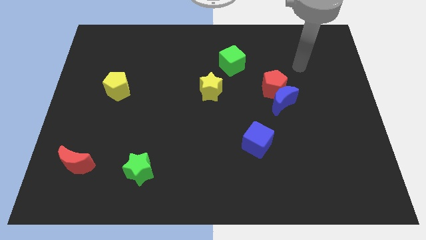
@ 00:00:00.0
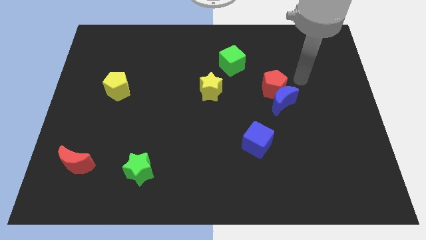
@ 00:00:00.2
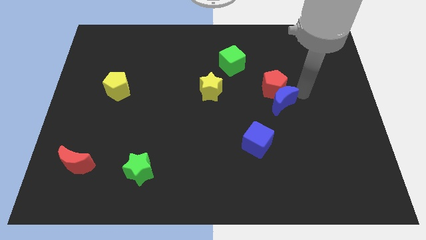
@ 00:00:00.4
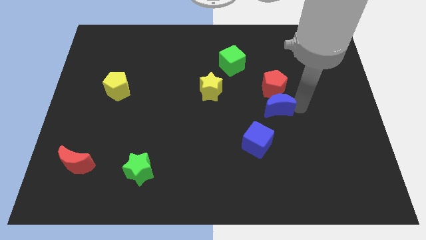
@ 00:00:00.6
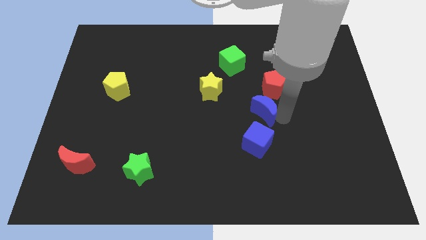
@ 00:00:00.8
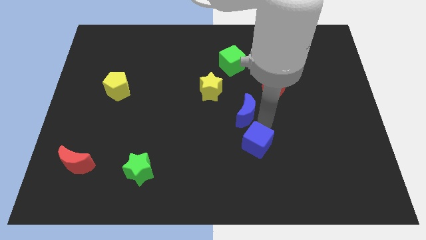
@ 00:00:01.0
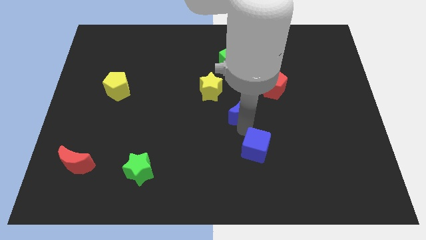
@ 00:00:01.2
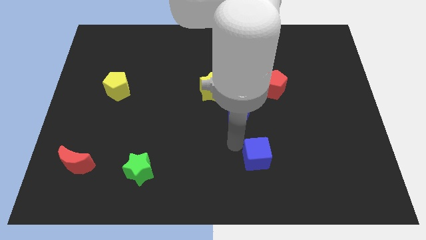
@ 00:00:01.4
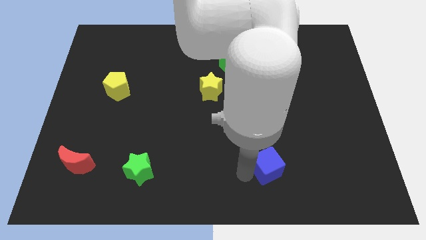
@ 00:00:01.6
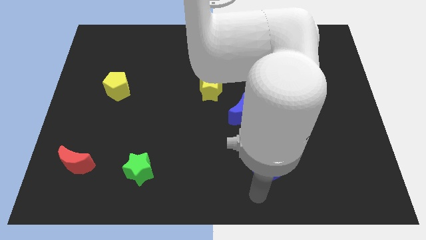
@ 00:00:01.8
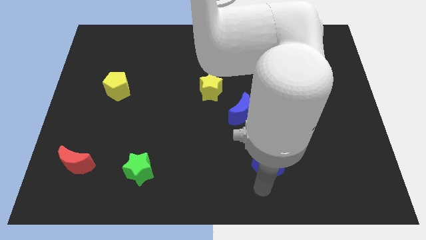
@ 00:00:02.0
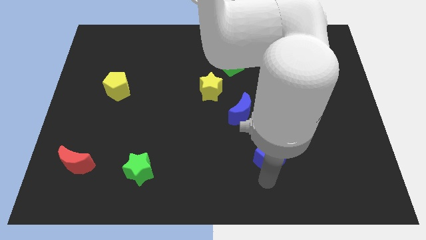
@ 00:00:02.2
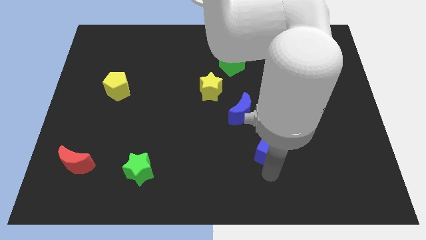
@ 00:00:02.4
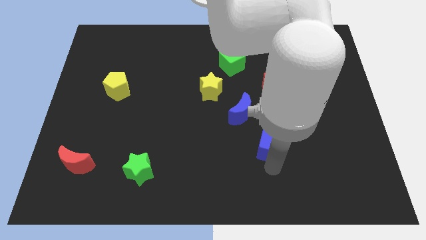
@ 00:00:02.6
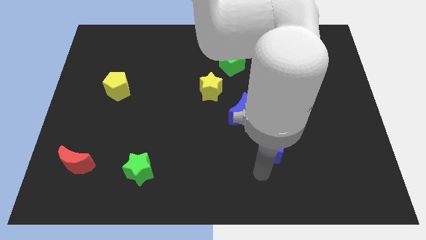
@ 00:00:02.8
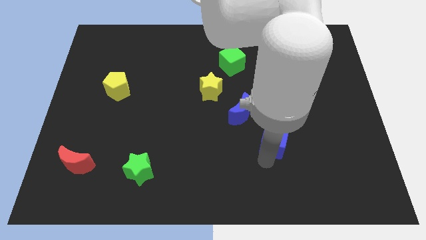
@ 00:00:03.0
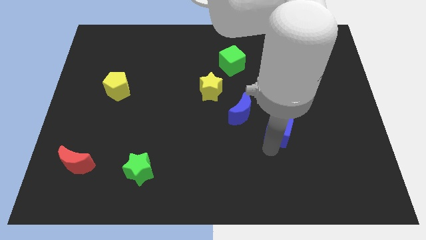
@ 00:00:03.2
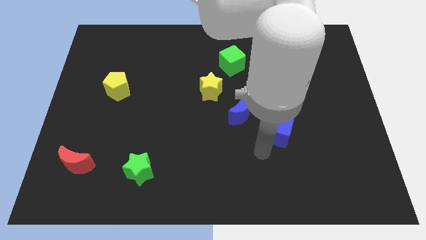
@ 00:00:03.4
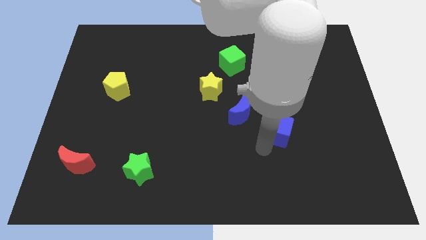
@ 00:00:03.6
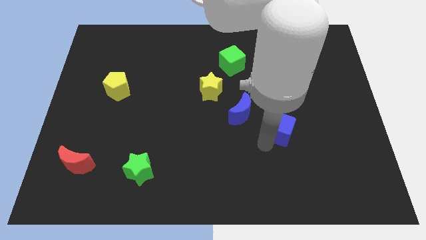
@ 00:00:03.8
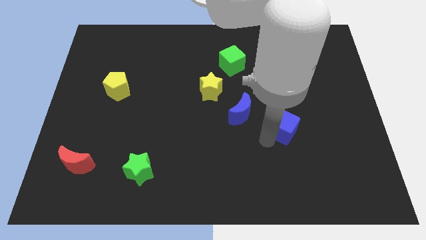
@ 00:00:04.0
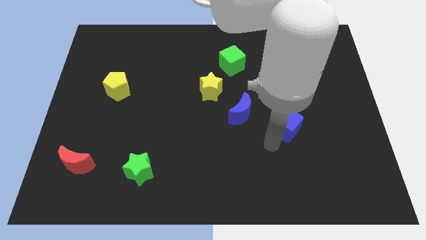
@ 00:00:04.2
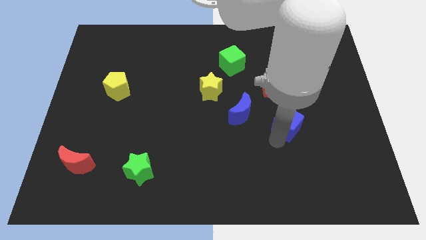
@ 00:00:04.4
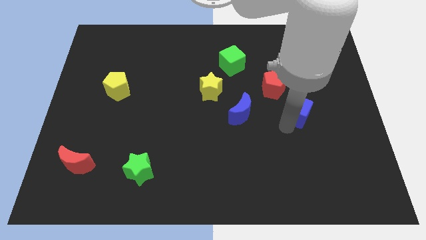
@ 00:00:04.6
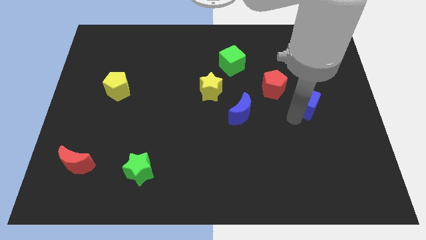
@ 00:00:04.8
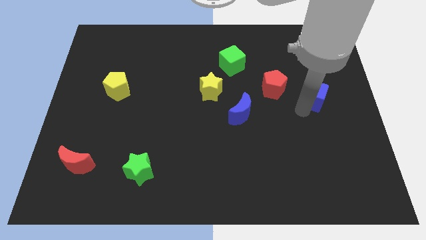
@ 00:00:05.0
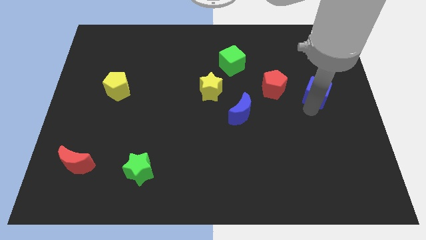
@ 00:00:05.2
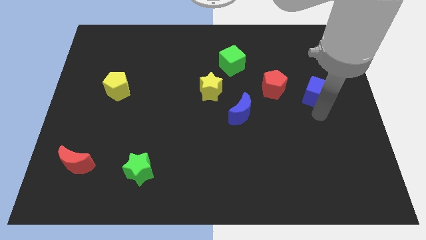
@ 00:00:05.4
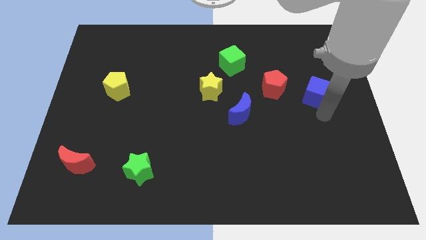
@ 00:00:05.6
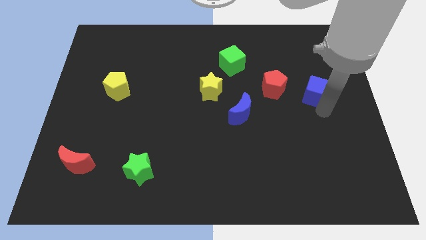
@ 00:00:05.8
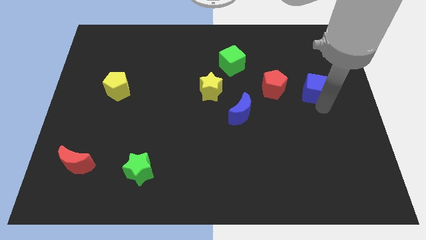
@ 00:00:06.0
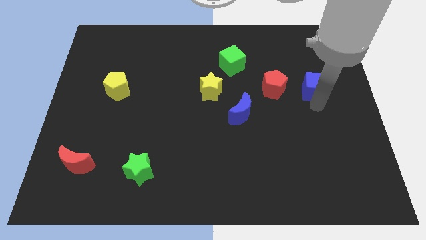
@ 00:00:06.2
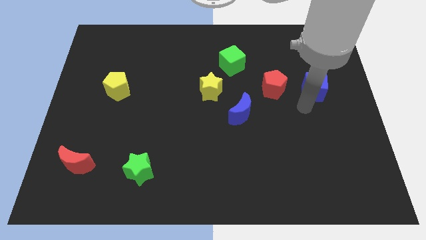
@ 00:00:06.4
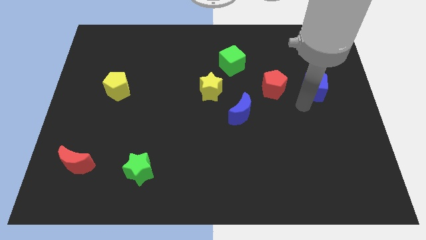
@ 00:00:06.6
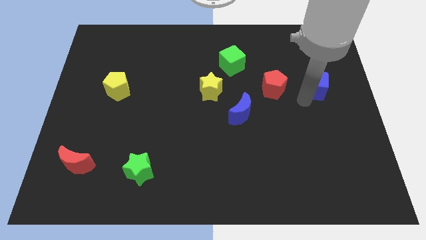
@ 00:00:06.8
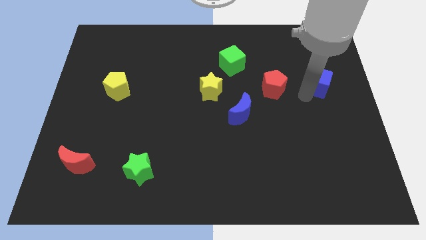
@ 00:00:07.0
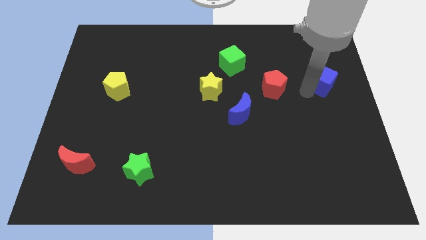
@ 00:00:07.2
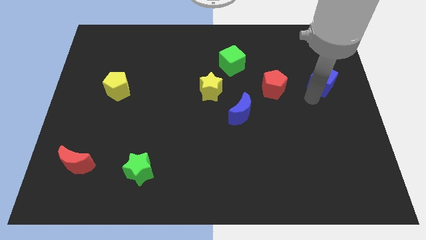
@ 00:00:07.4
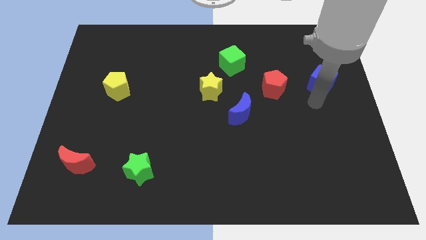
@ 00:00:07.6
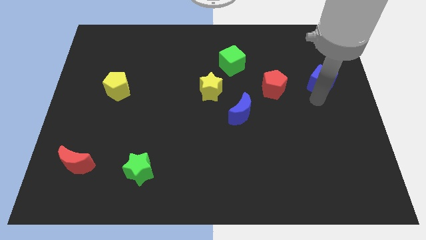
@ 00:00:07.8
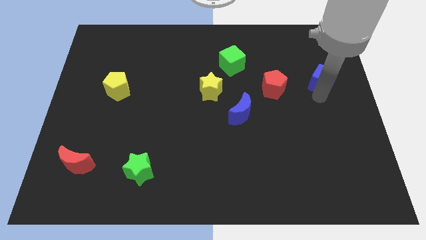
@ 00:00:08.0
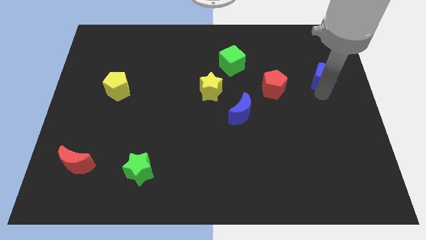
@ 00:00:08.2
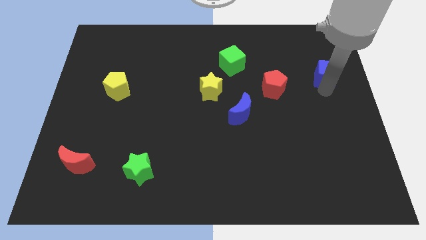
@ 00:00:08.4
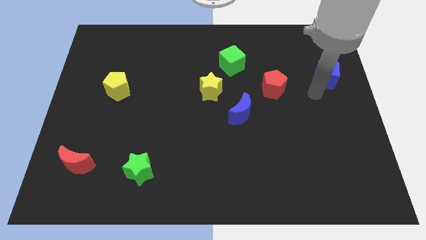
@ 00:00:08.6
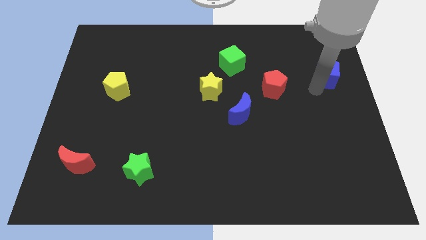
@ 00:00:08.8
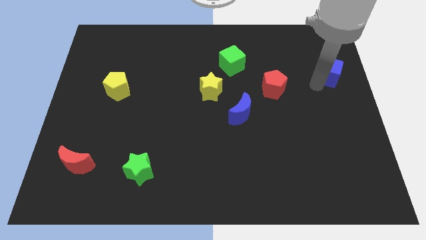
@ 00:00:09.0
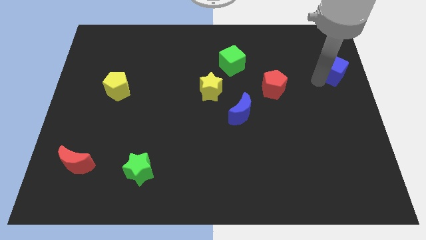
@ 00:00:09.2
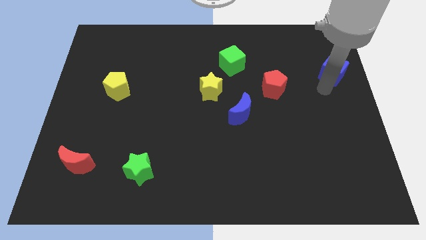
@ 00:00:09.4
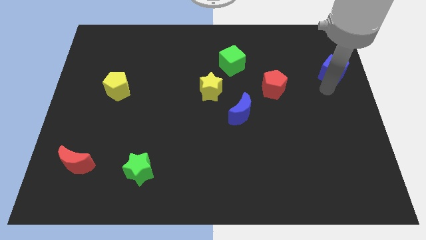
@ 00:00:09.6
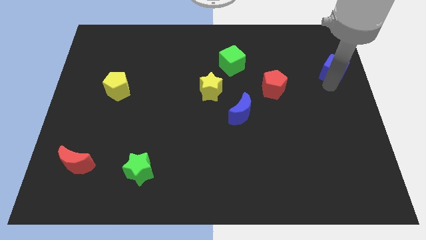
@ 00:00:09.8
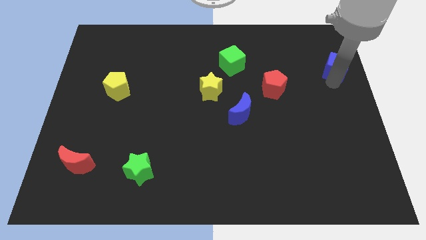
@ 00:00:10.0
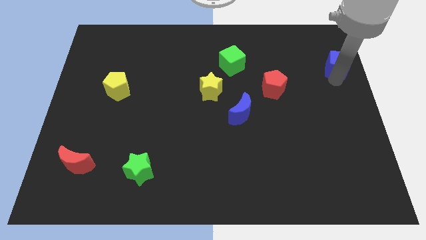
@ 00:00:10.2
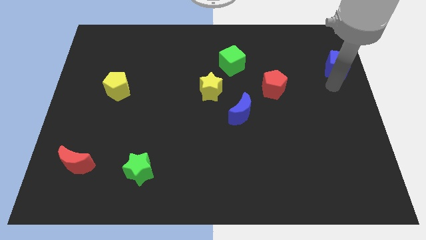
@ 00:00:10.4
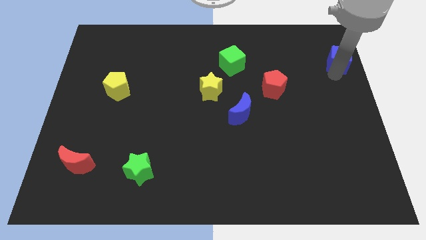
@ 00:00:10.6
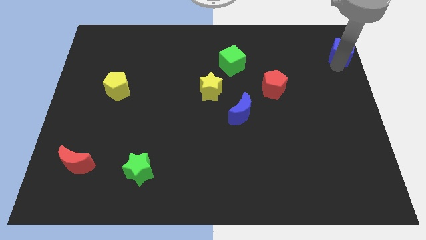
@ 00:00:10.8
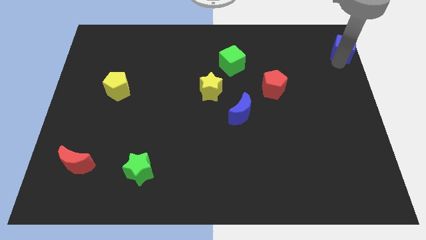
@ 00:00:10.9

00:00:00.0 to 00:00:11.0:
slide the blue cube to the upper right corner
